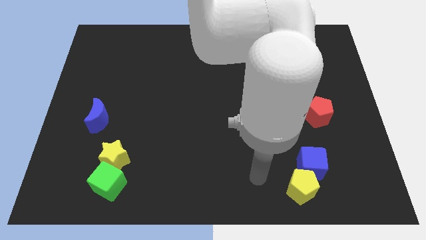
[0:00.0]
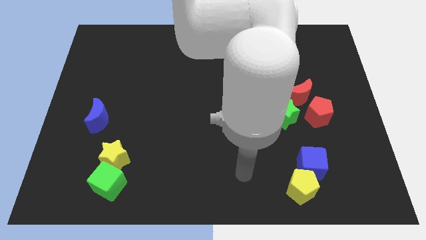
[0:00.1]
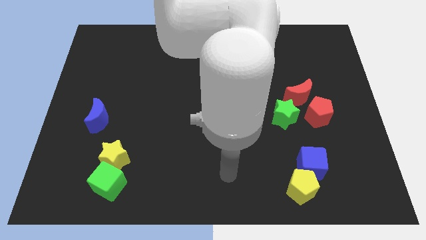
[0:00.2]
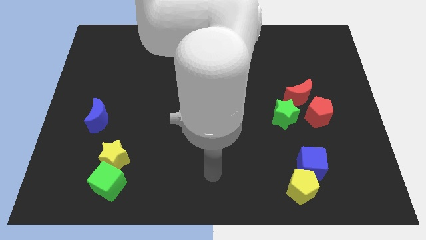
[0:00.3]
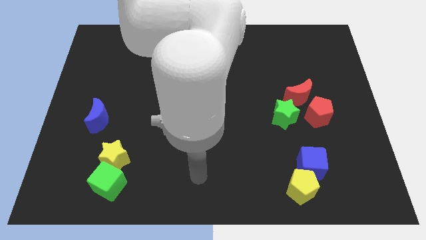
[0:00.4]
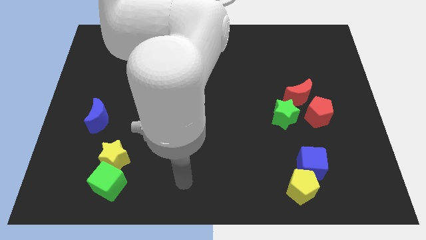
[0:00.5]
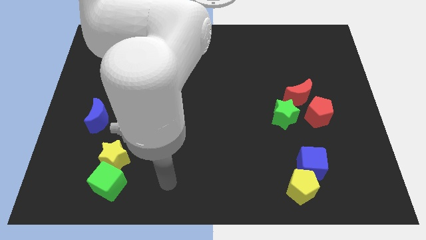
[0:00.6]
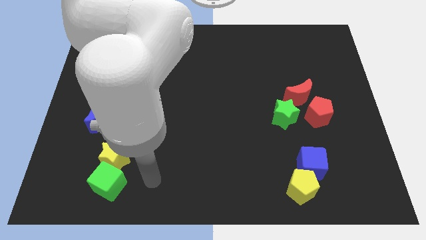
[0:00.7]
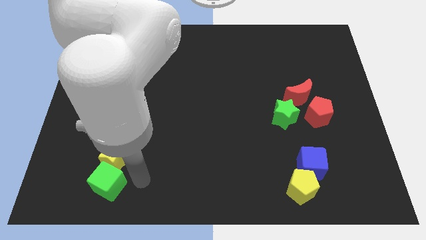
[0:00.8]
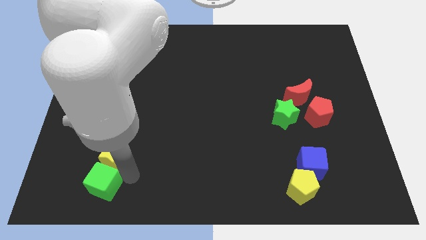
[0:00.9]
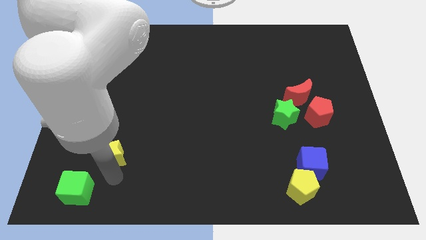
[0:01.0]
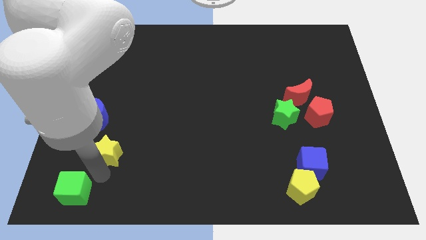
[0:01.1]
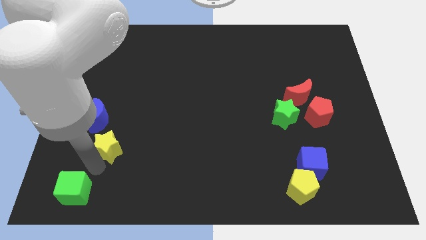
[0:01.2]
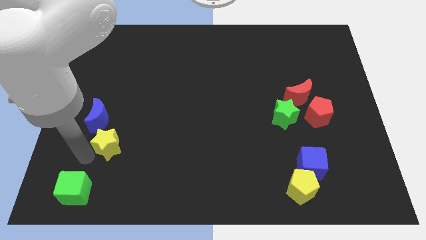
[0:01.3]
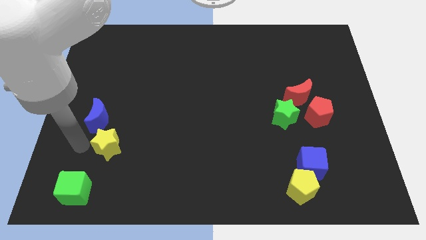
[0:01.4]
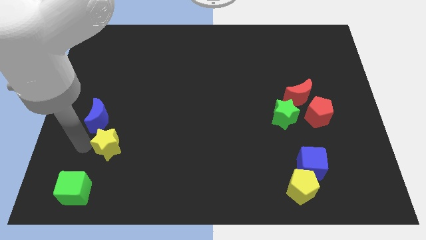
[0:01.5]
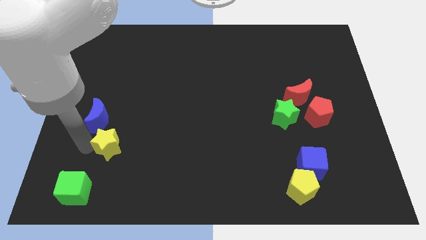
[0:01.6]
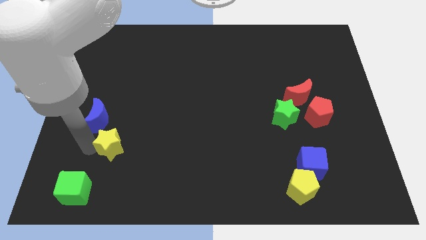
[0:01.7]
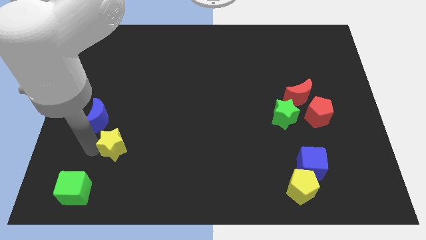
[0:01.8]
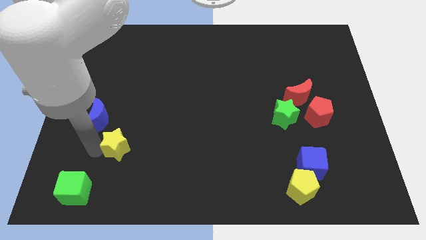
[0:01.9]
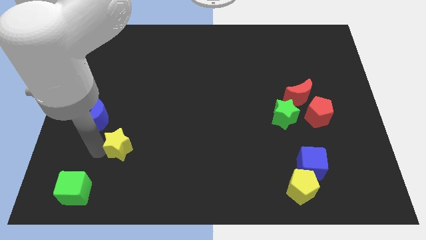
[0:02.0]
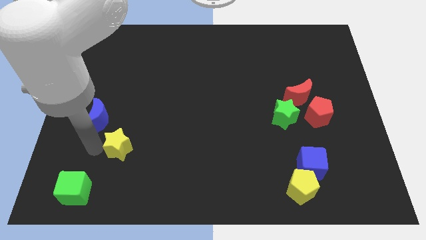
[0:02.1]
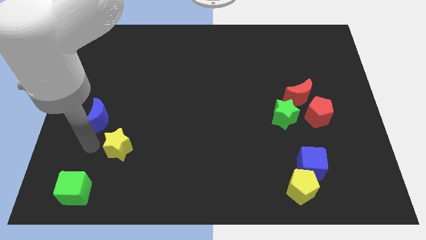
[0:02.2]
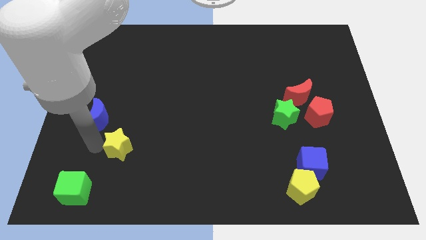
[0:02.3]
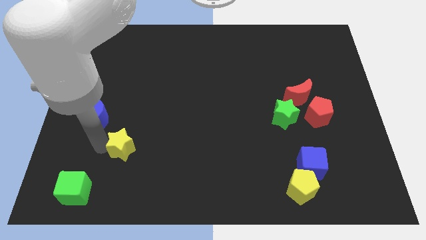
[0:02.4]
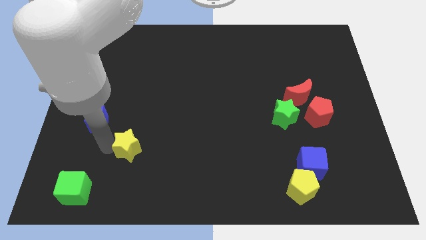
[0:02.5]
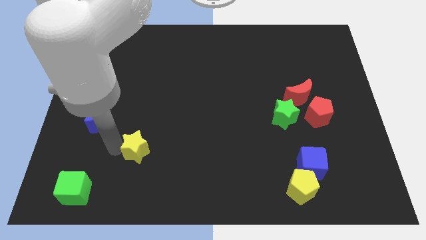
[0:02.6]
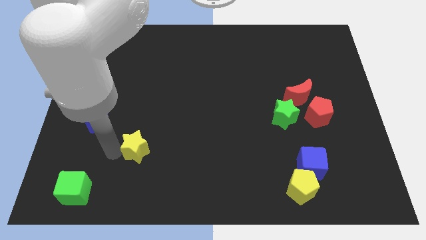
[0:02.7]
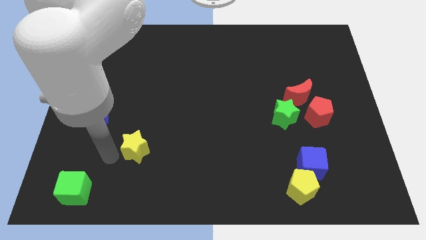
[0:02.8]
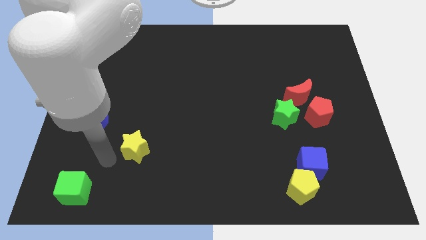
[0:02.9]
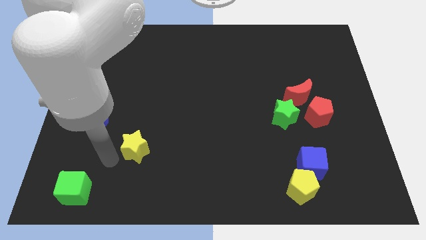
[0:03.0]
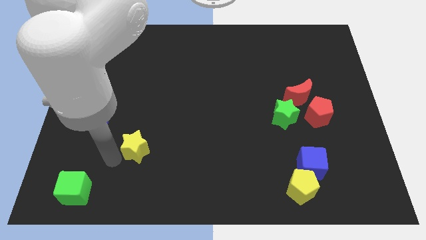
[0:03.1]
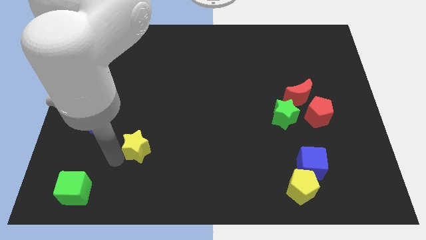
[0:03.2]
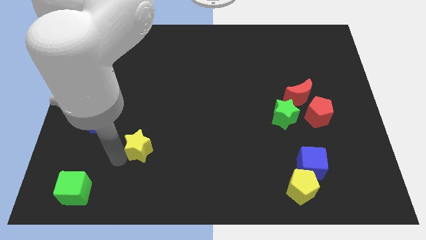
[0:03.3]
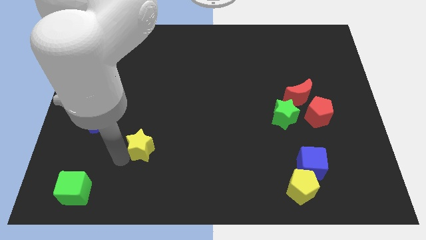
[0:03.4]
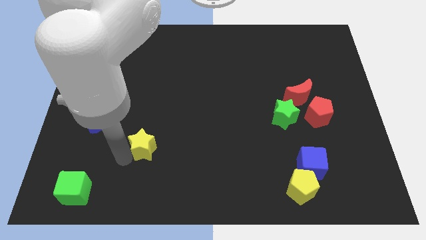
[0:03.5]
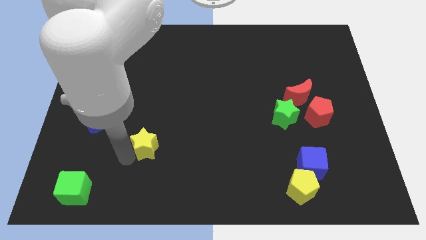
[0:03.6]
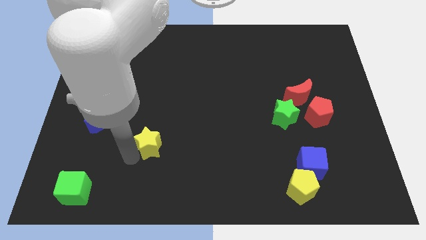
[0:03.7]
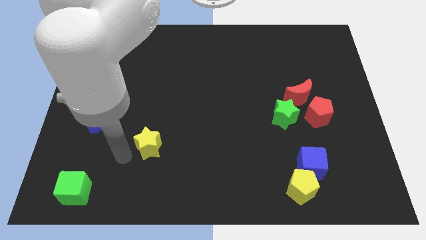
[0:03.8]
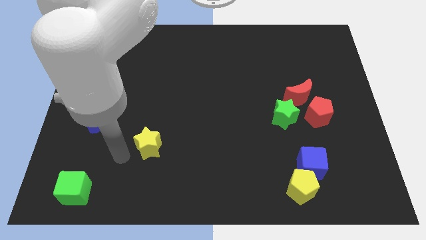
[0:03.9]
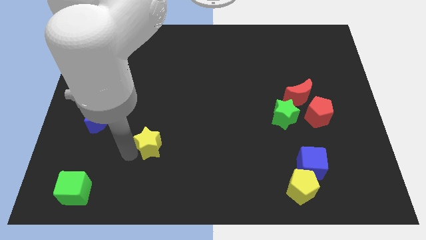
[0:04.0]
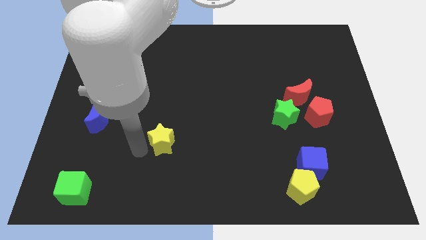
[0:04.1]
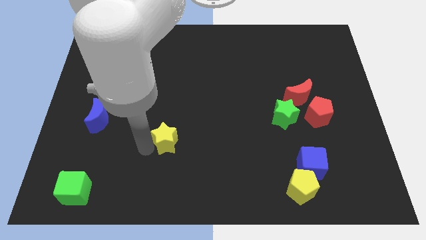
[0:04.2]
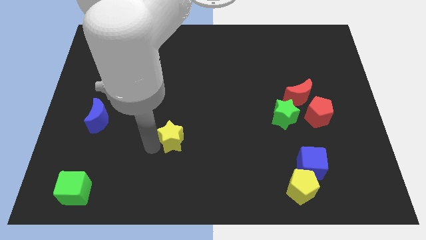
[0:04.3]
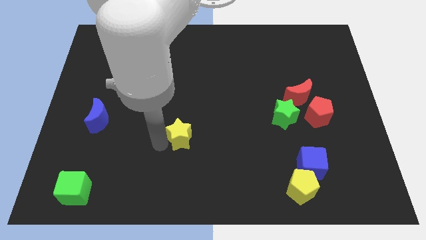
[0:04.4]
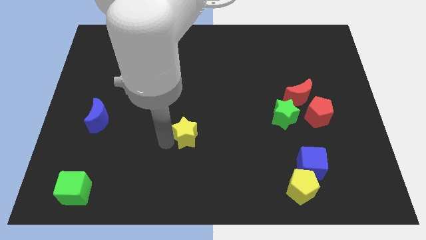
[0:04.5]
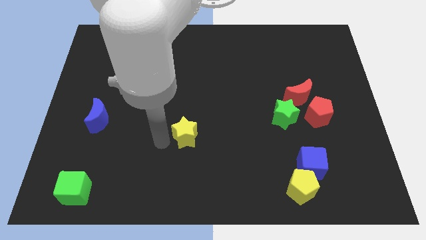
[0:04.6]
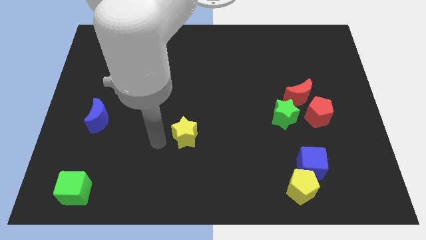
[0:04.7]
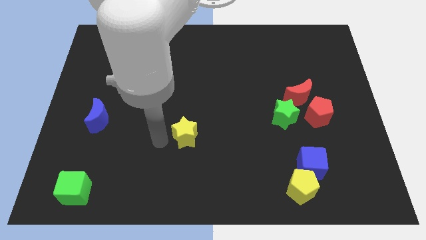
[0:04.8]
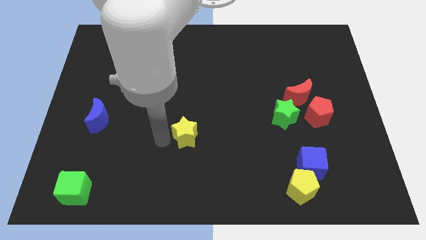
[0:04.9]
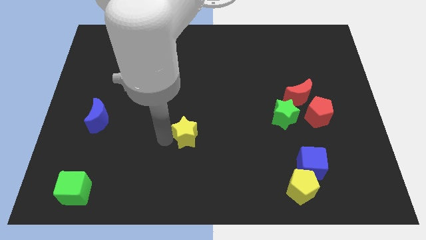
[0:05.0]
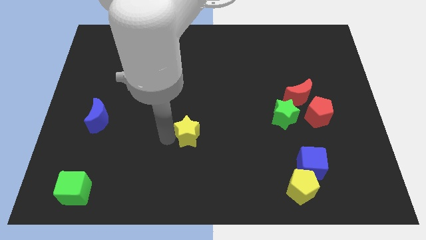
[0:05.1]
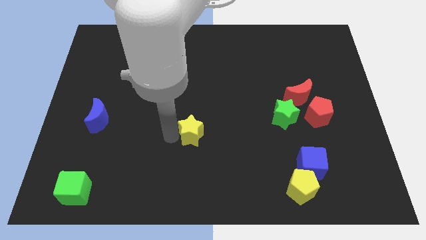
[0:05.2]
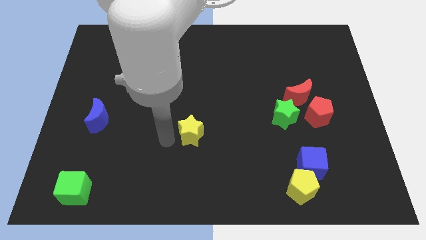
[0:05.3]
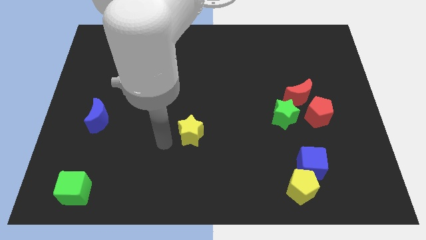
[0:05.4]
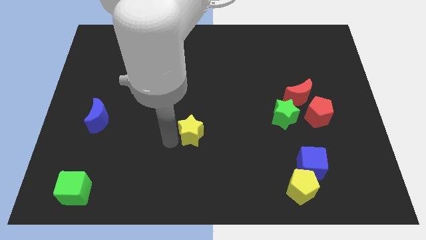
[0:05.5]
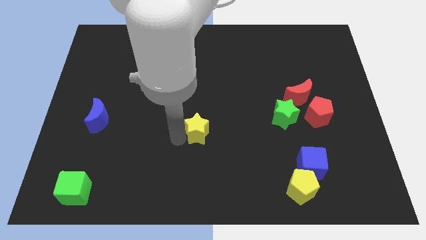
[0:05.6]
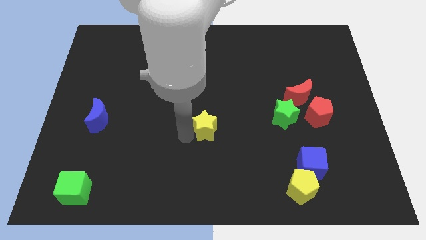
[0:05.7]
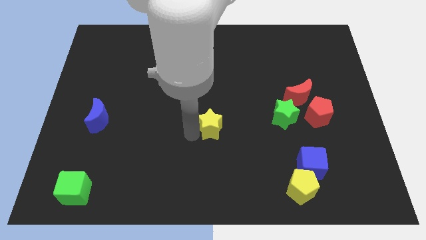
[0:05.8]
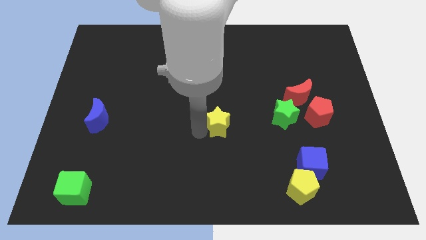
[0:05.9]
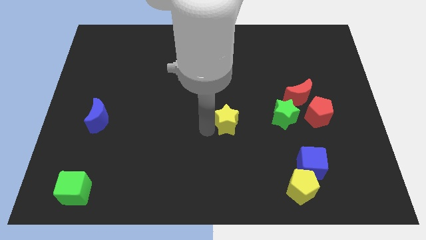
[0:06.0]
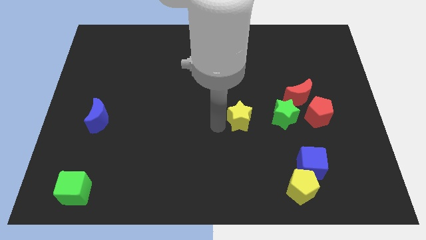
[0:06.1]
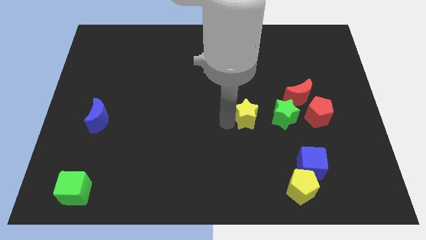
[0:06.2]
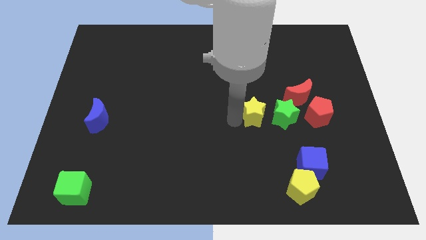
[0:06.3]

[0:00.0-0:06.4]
slide the yellow star just left of the red pentagon

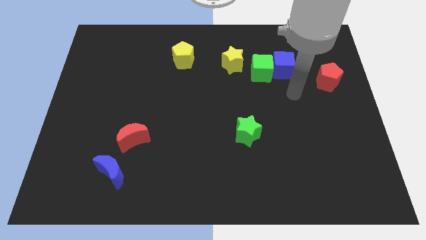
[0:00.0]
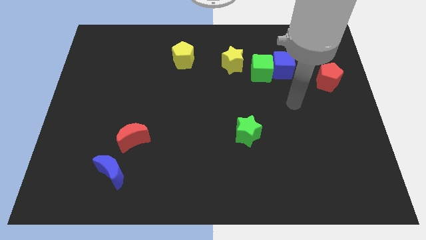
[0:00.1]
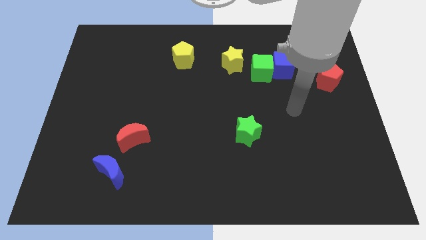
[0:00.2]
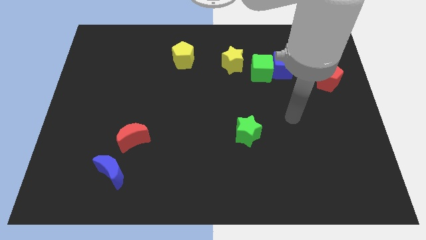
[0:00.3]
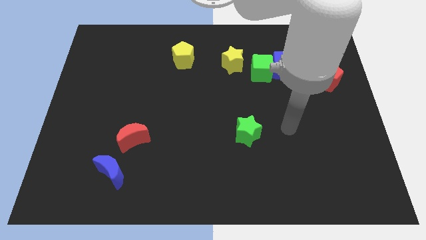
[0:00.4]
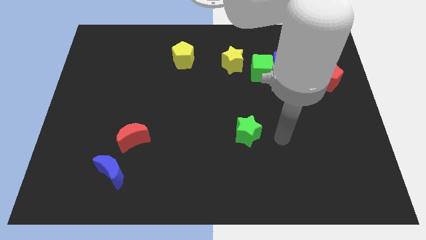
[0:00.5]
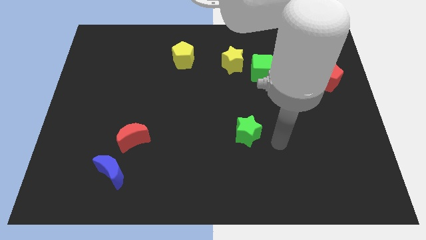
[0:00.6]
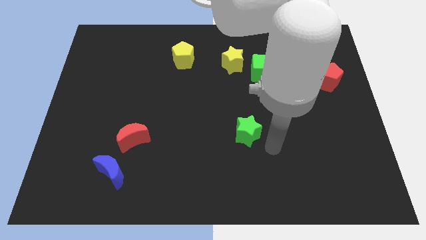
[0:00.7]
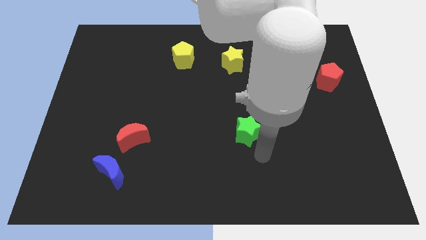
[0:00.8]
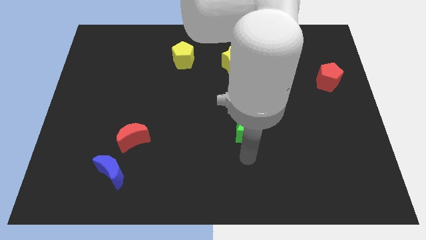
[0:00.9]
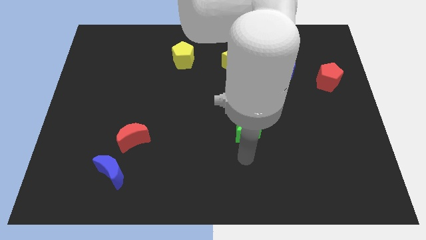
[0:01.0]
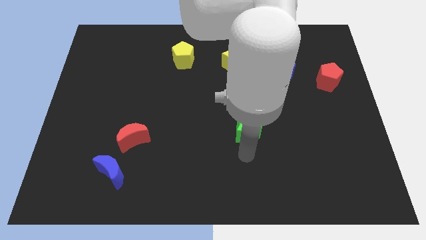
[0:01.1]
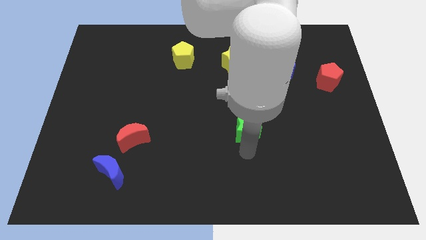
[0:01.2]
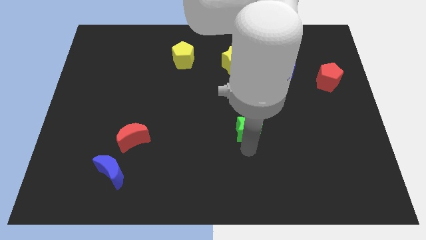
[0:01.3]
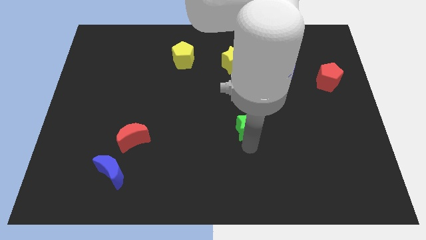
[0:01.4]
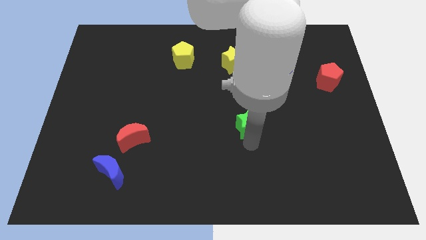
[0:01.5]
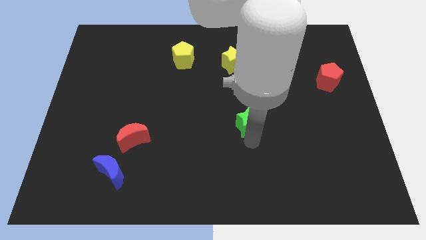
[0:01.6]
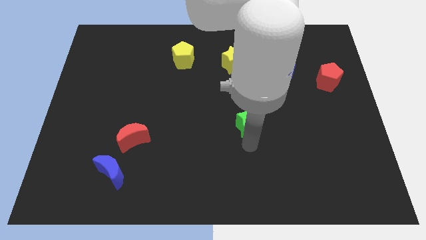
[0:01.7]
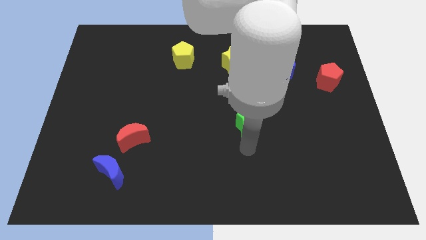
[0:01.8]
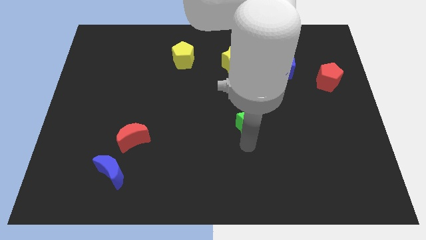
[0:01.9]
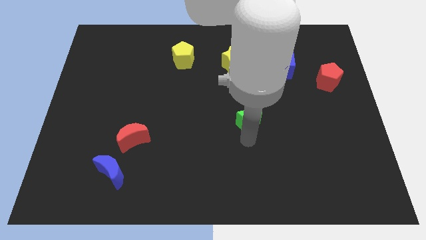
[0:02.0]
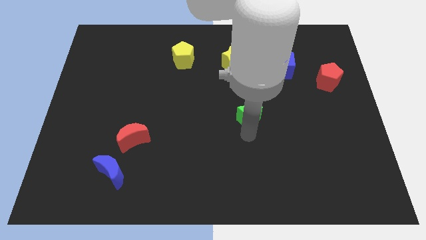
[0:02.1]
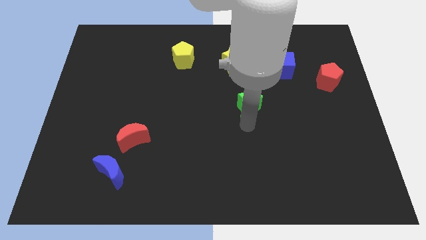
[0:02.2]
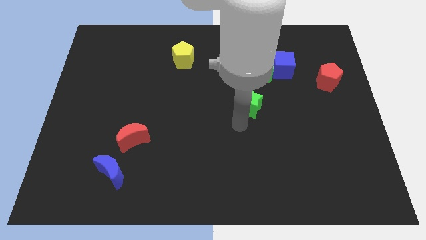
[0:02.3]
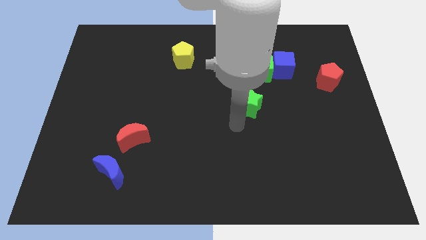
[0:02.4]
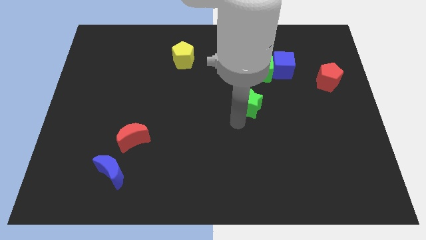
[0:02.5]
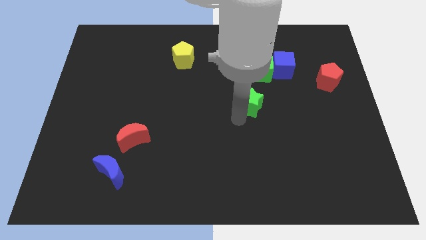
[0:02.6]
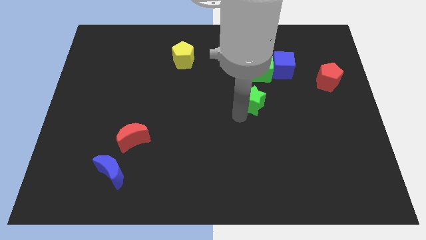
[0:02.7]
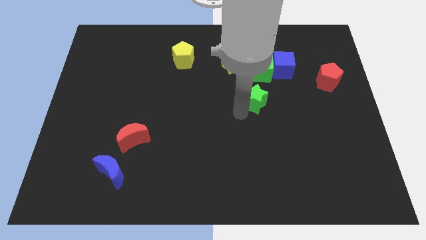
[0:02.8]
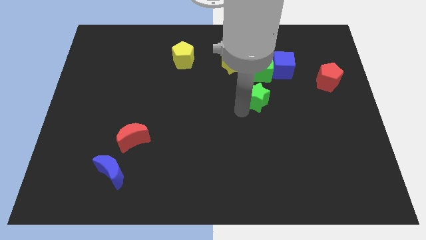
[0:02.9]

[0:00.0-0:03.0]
slide the green star to the bottom left side of the blue cube
